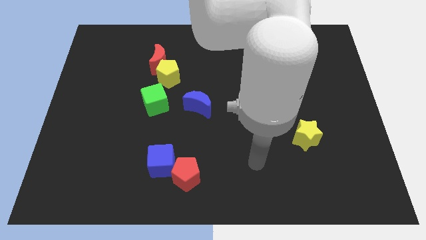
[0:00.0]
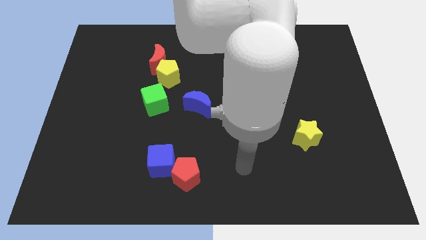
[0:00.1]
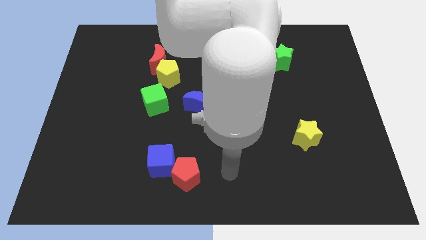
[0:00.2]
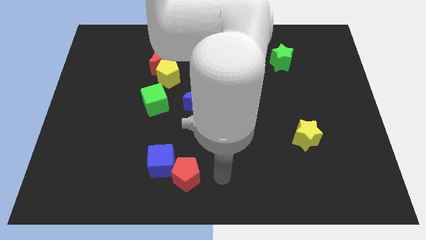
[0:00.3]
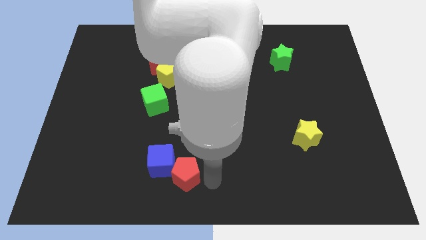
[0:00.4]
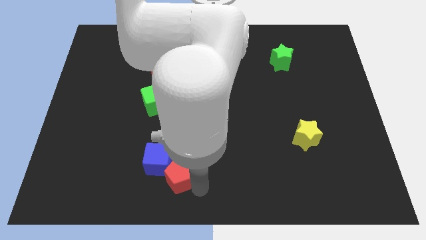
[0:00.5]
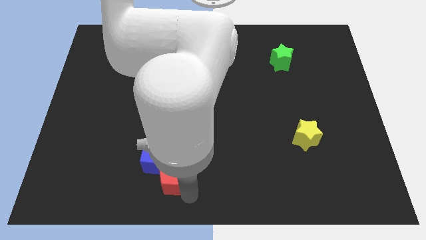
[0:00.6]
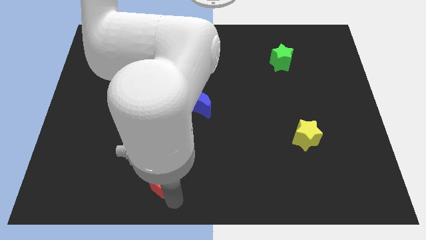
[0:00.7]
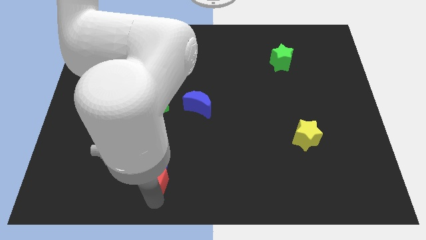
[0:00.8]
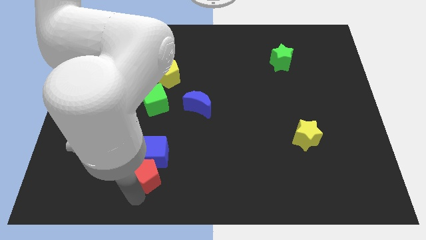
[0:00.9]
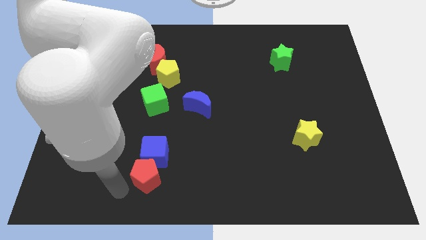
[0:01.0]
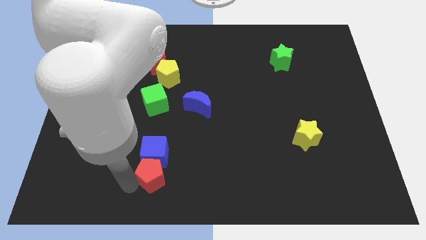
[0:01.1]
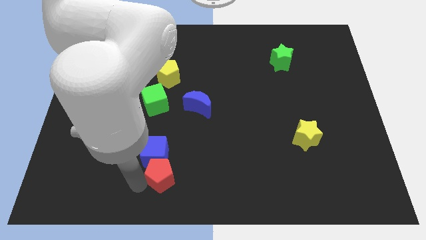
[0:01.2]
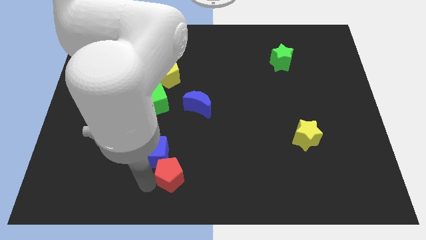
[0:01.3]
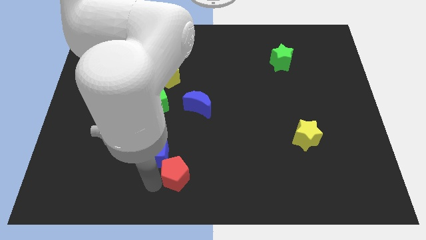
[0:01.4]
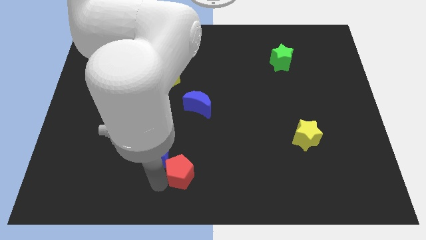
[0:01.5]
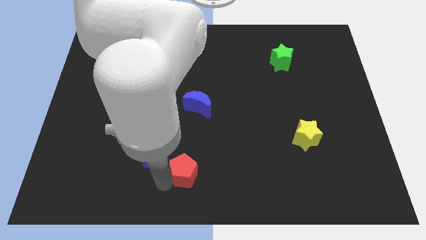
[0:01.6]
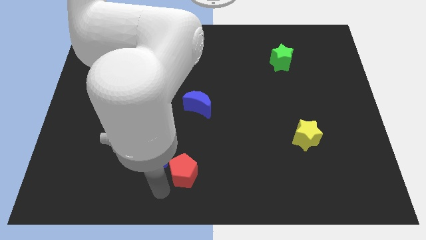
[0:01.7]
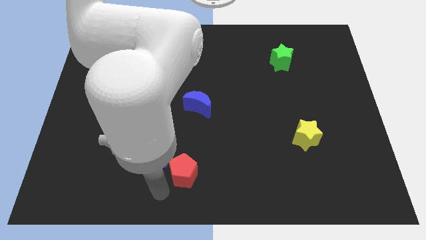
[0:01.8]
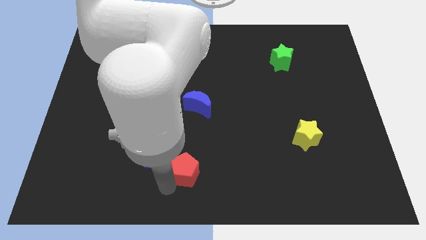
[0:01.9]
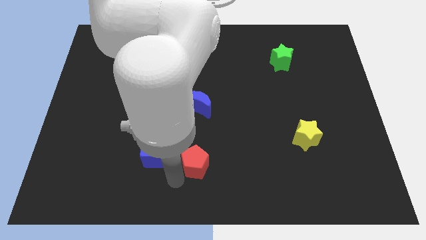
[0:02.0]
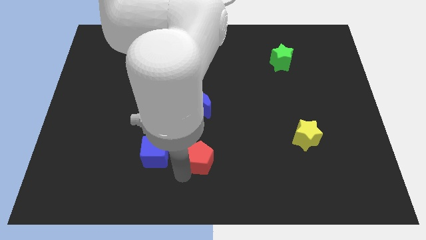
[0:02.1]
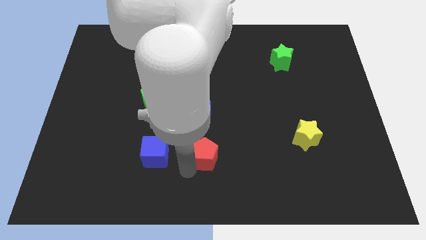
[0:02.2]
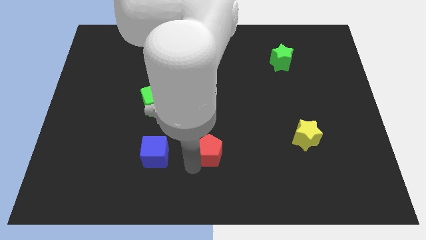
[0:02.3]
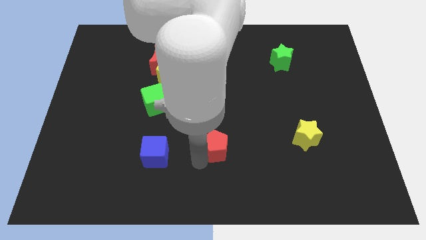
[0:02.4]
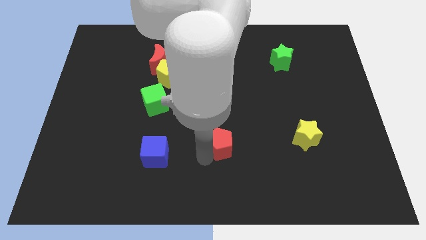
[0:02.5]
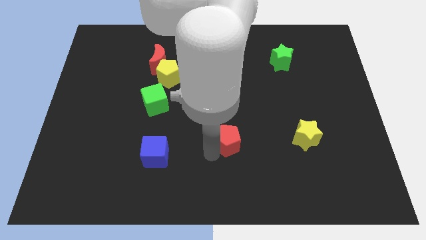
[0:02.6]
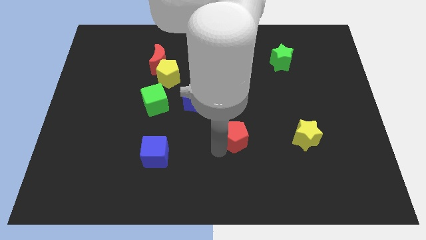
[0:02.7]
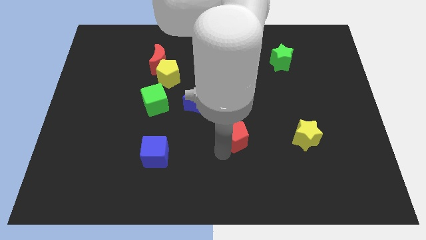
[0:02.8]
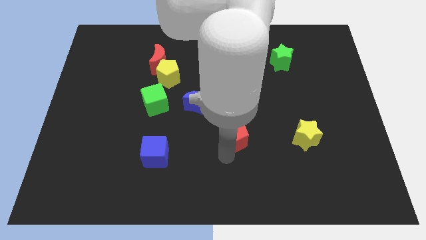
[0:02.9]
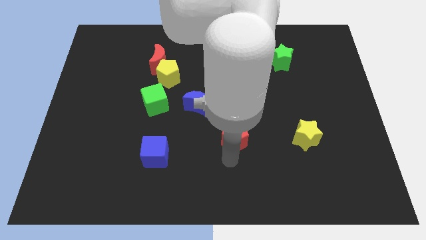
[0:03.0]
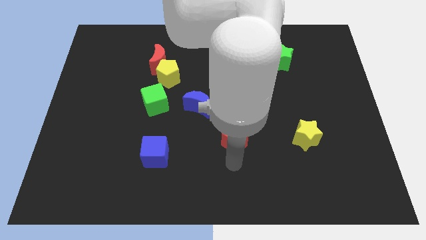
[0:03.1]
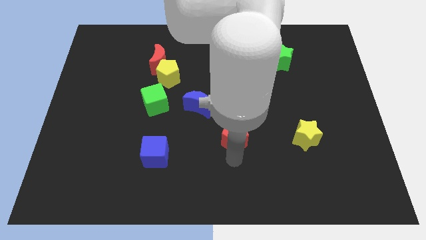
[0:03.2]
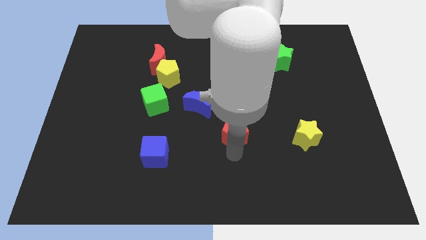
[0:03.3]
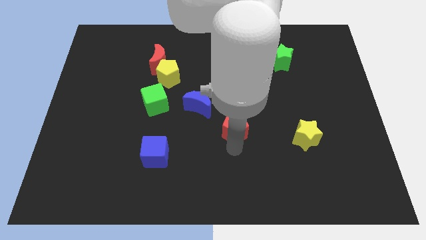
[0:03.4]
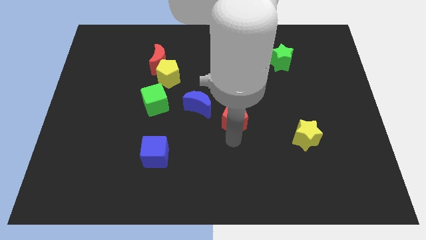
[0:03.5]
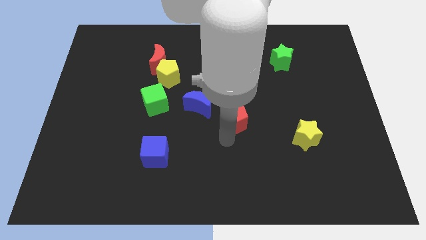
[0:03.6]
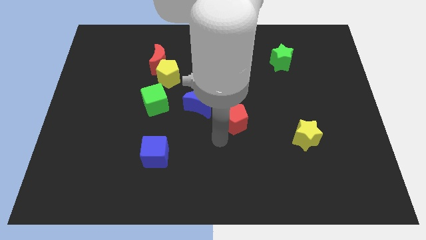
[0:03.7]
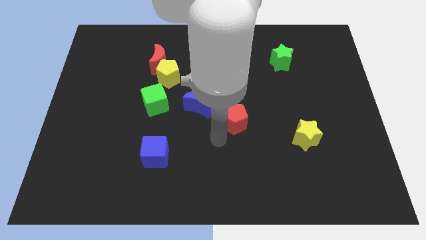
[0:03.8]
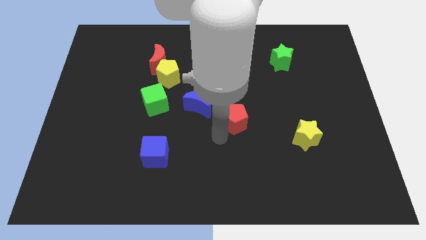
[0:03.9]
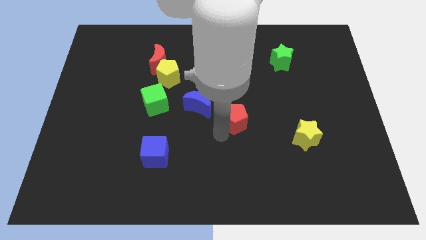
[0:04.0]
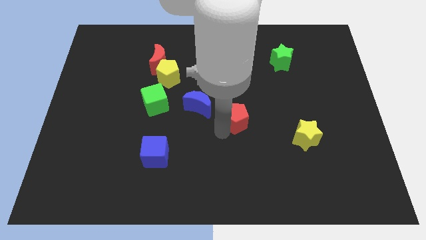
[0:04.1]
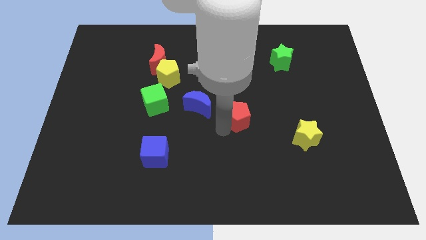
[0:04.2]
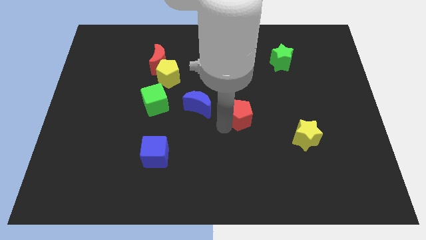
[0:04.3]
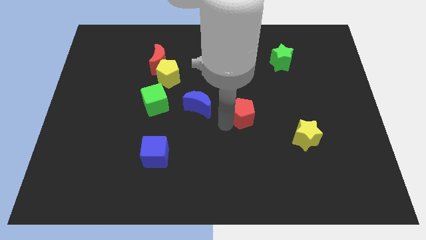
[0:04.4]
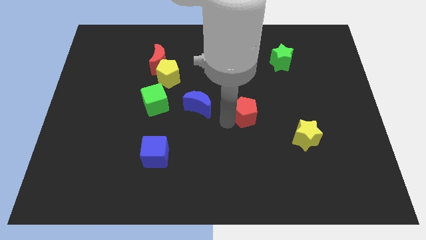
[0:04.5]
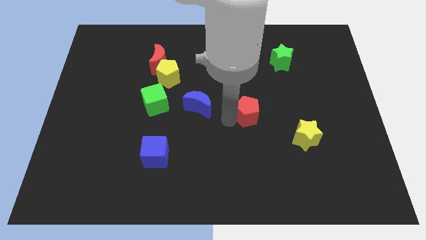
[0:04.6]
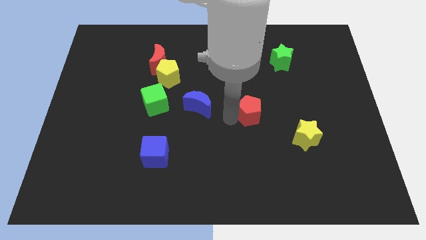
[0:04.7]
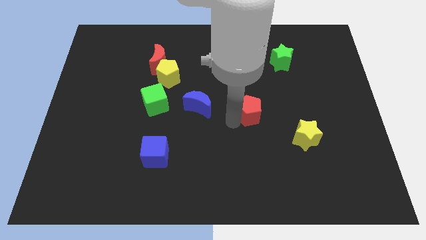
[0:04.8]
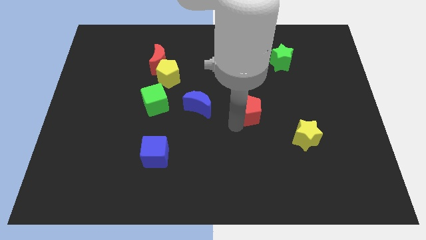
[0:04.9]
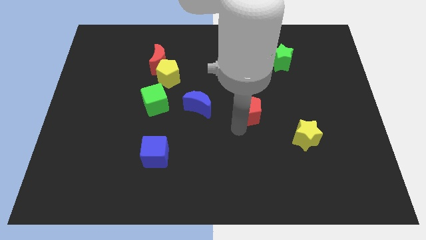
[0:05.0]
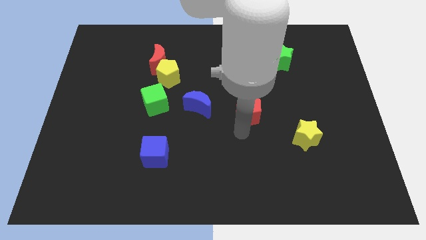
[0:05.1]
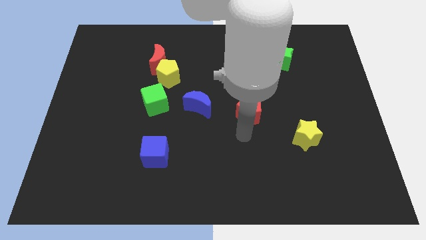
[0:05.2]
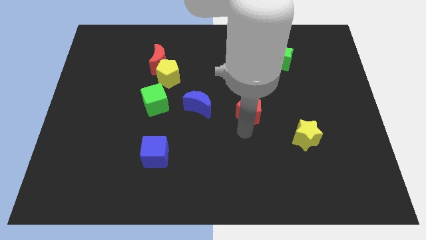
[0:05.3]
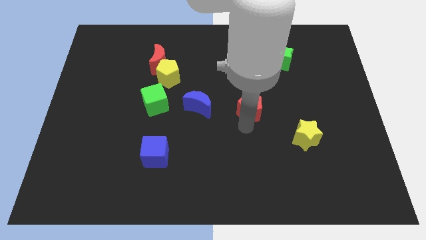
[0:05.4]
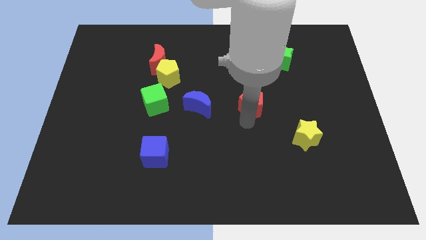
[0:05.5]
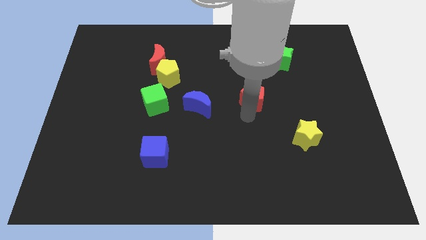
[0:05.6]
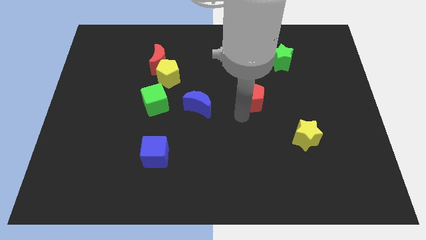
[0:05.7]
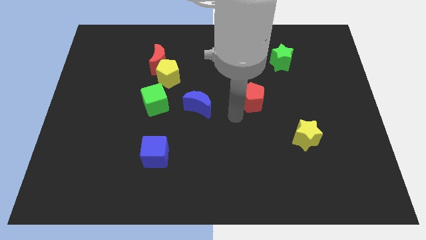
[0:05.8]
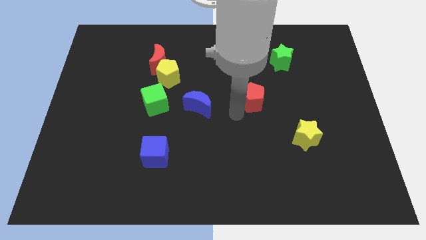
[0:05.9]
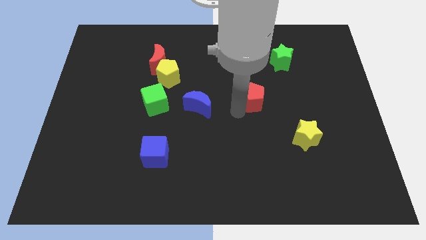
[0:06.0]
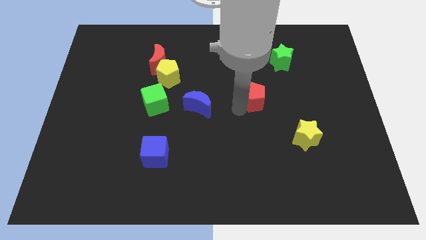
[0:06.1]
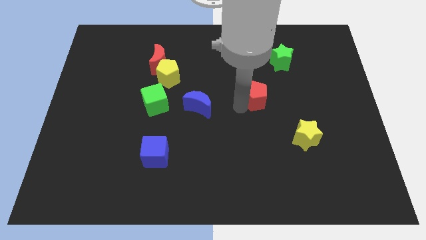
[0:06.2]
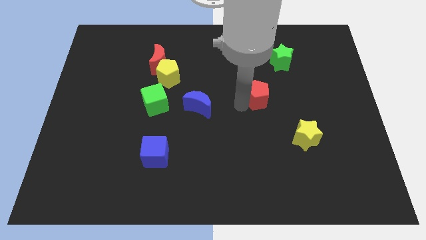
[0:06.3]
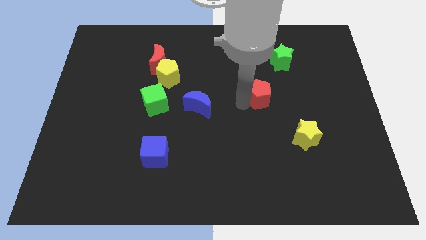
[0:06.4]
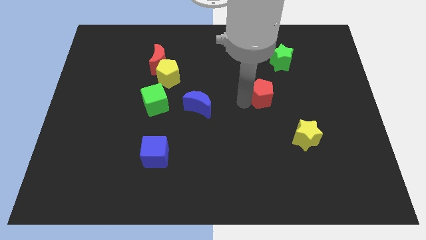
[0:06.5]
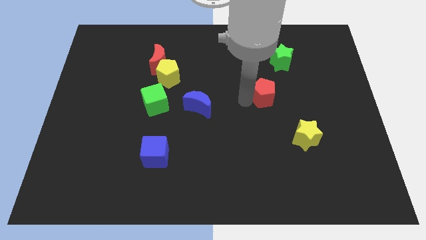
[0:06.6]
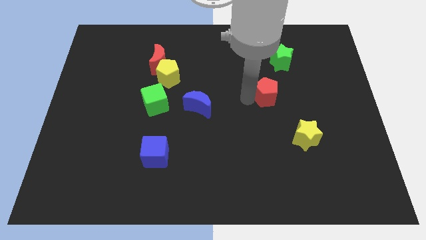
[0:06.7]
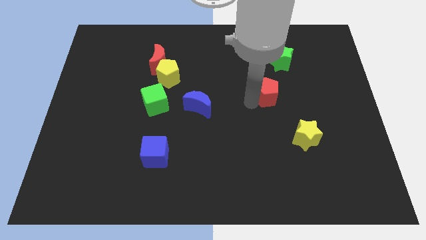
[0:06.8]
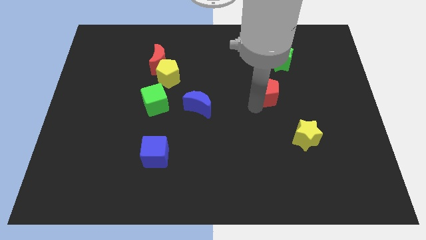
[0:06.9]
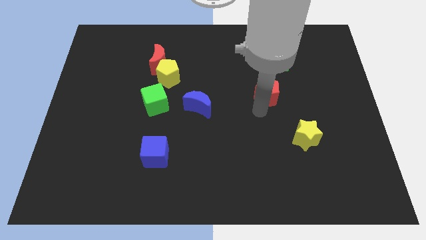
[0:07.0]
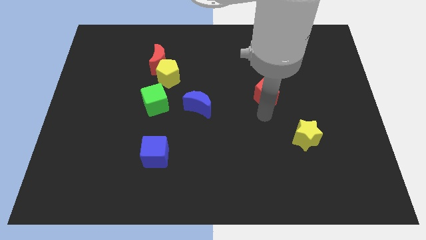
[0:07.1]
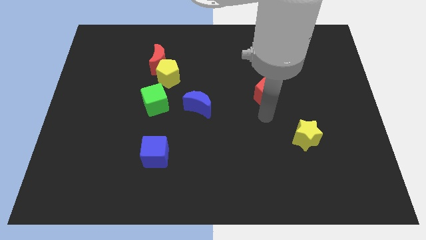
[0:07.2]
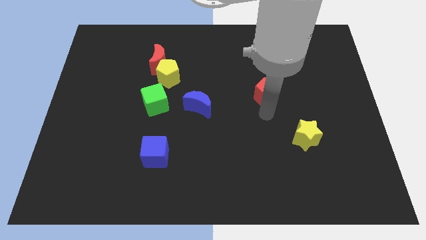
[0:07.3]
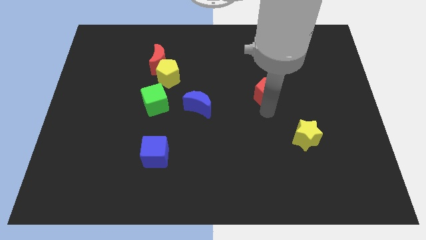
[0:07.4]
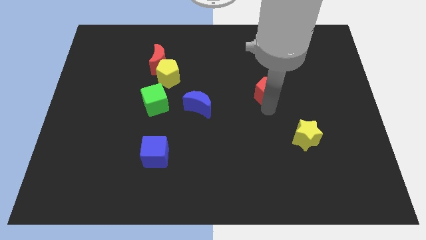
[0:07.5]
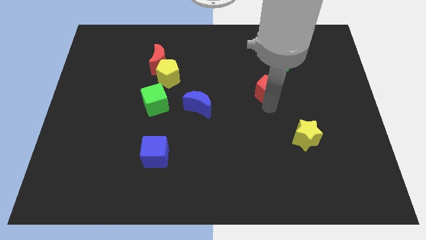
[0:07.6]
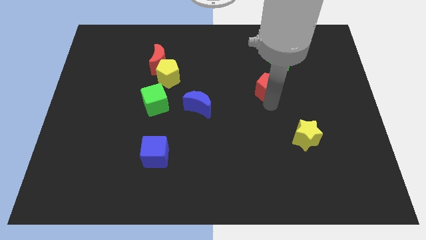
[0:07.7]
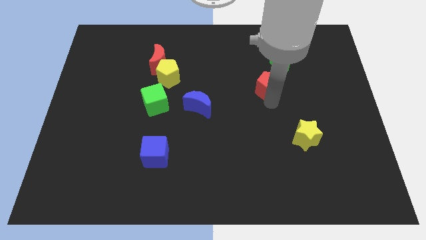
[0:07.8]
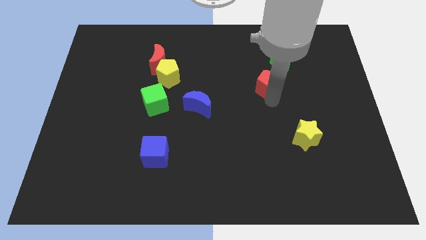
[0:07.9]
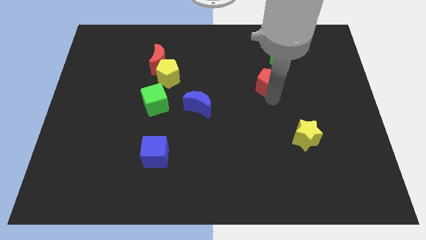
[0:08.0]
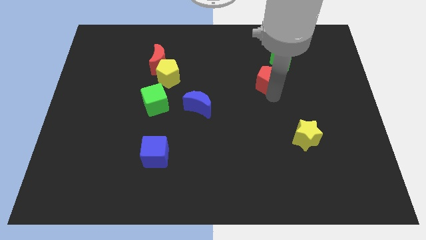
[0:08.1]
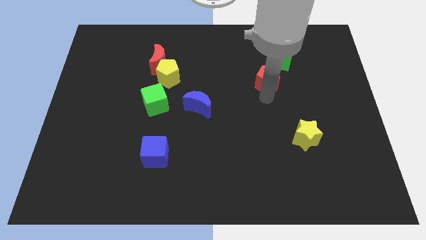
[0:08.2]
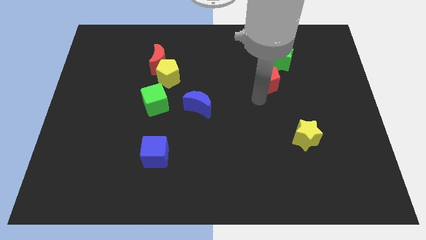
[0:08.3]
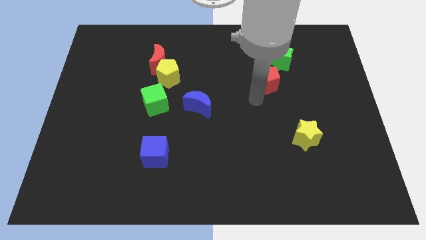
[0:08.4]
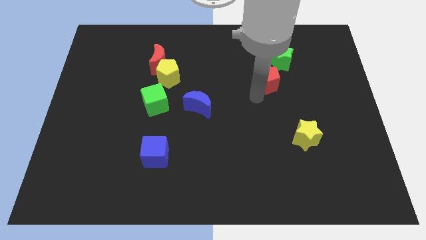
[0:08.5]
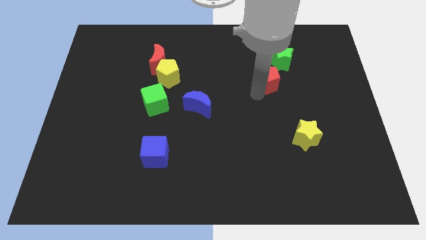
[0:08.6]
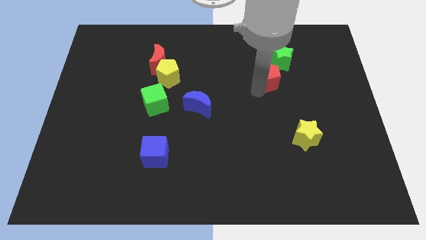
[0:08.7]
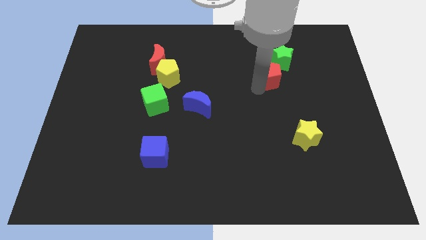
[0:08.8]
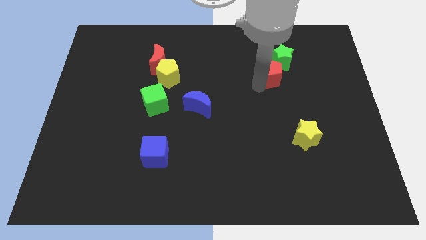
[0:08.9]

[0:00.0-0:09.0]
put the red pentagon close to the green star
